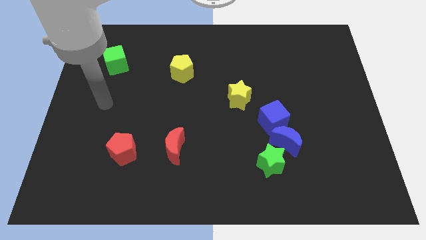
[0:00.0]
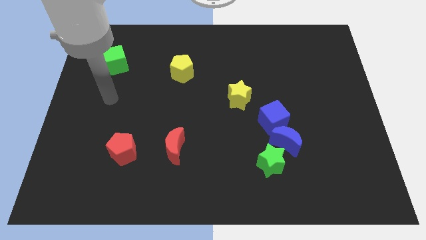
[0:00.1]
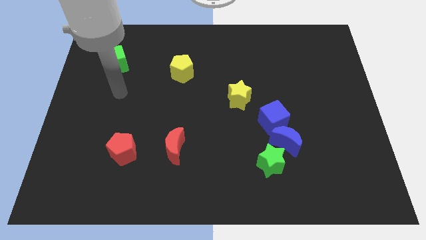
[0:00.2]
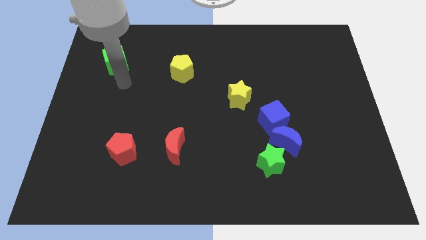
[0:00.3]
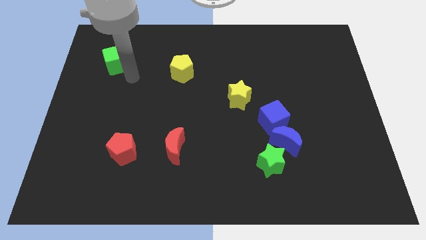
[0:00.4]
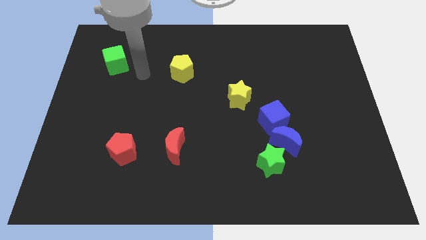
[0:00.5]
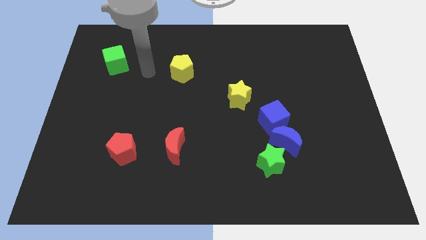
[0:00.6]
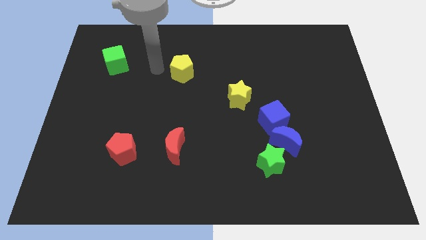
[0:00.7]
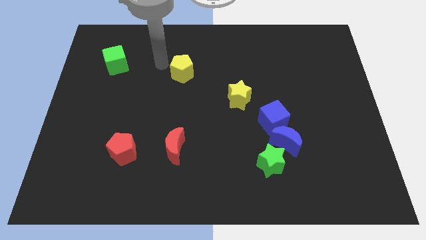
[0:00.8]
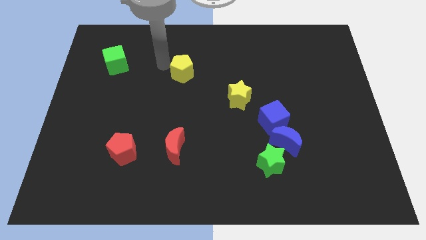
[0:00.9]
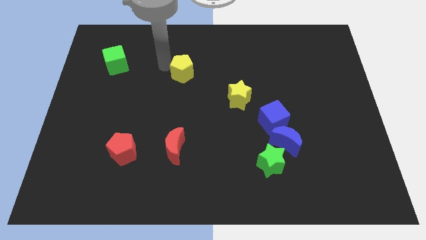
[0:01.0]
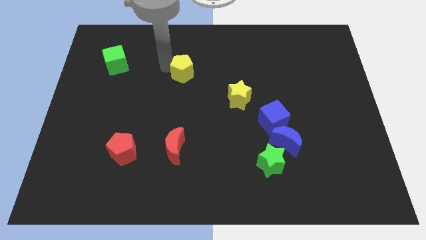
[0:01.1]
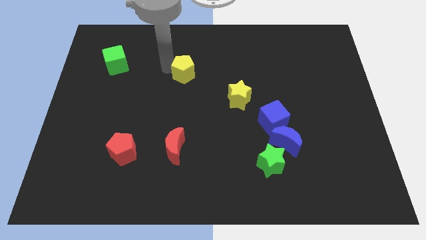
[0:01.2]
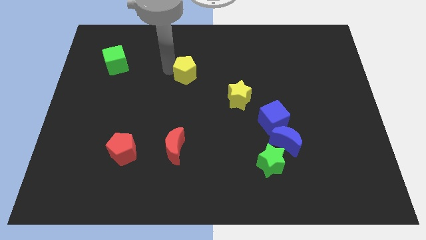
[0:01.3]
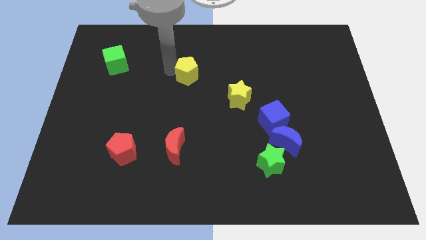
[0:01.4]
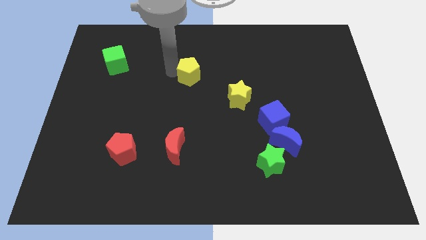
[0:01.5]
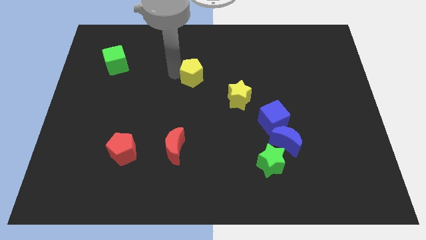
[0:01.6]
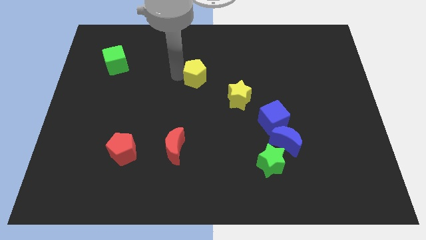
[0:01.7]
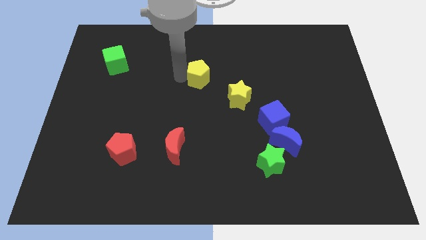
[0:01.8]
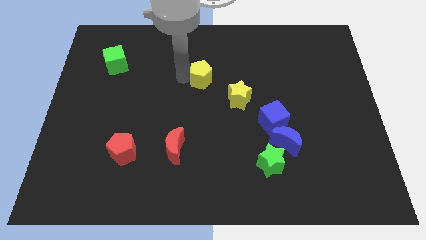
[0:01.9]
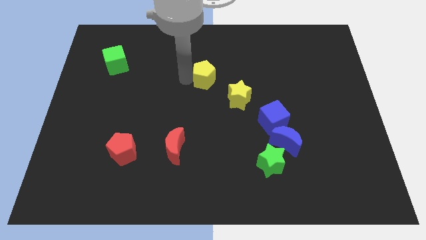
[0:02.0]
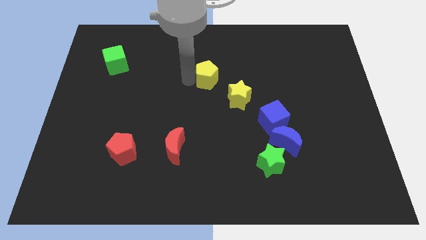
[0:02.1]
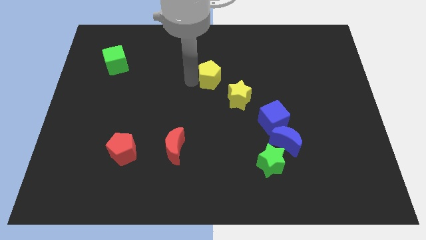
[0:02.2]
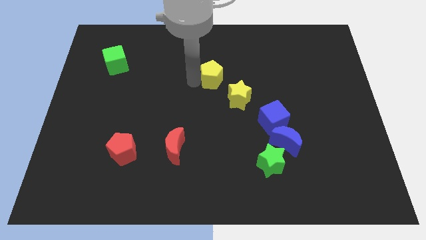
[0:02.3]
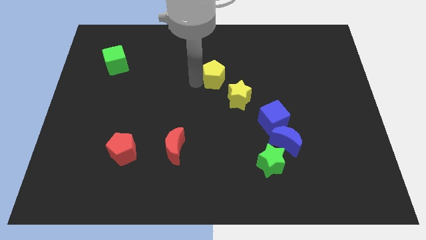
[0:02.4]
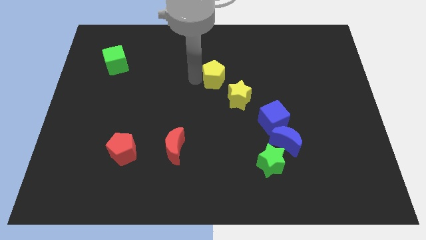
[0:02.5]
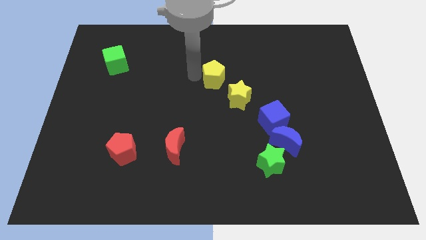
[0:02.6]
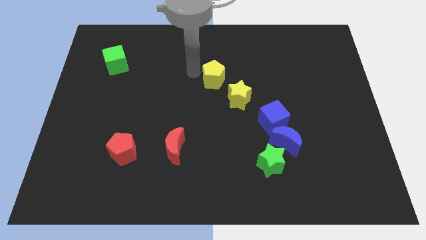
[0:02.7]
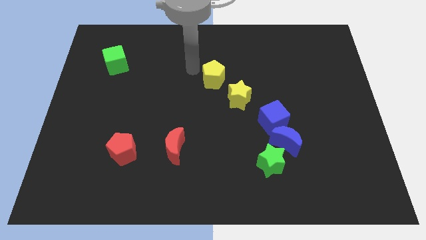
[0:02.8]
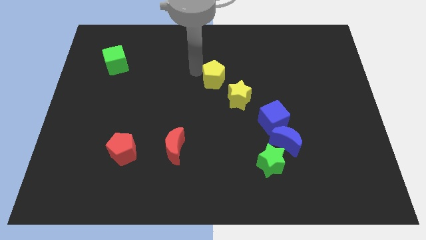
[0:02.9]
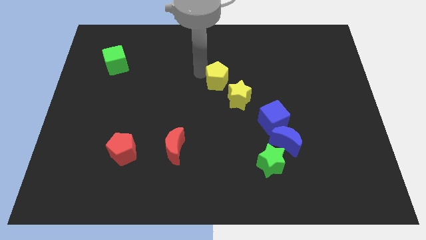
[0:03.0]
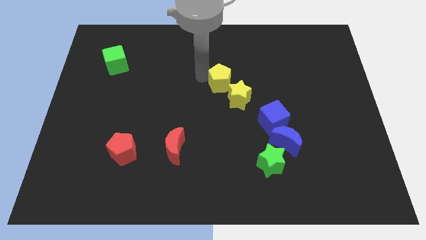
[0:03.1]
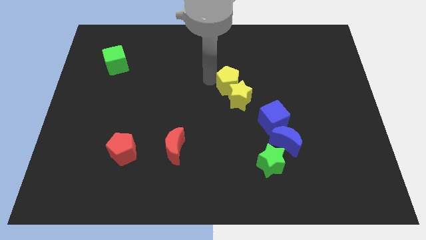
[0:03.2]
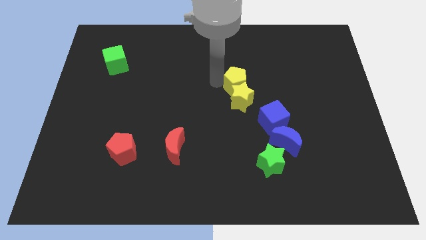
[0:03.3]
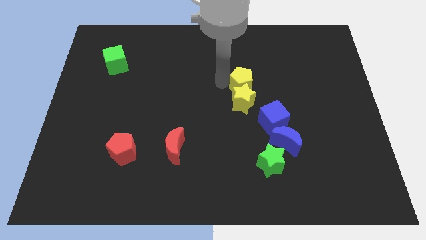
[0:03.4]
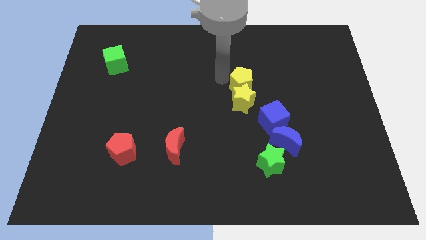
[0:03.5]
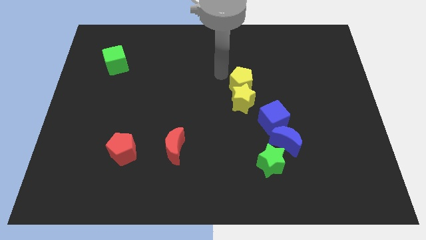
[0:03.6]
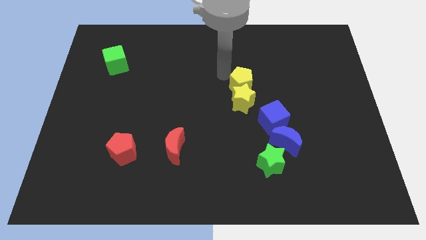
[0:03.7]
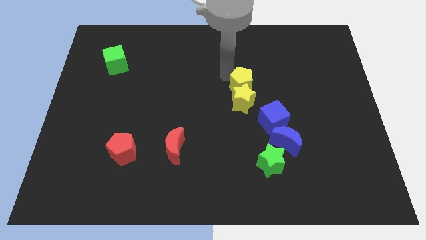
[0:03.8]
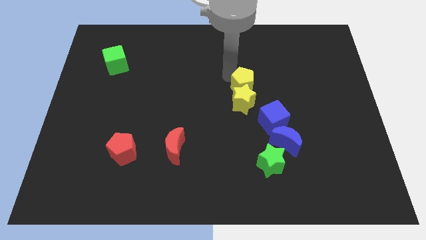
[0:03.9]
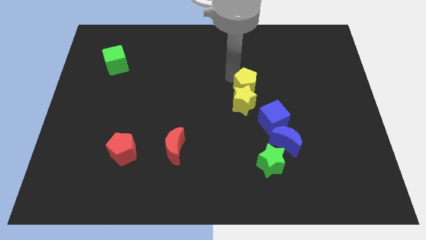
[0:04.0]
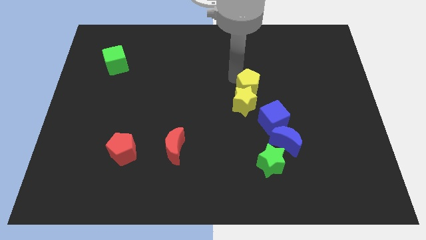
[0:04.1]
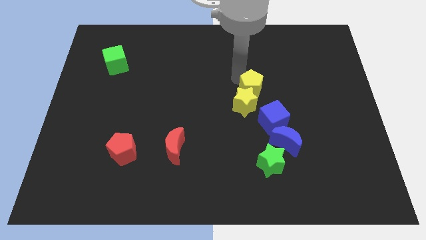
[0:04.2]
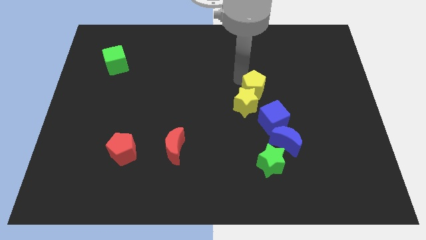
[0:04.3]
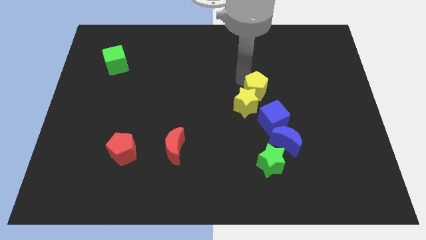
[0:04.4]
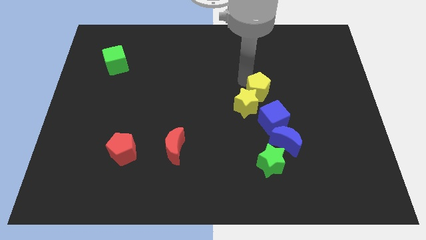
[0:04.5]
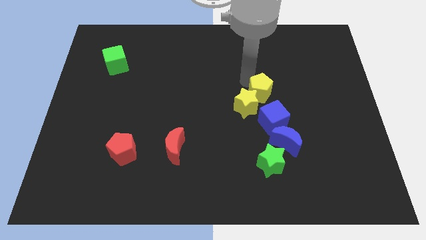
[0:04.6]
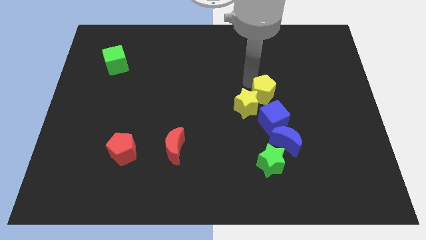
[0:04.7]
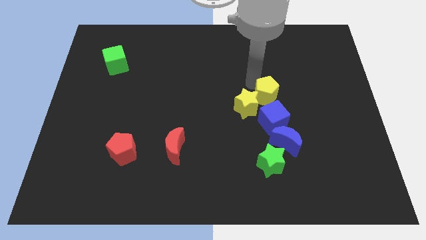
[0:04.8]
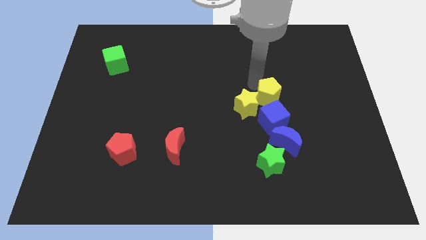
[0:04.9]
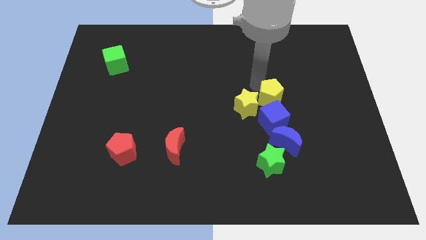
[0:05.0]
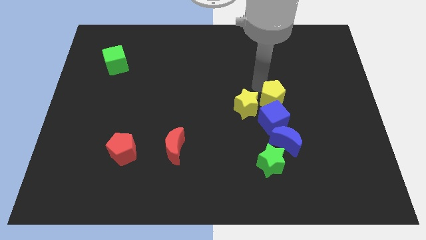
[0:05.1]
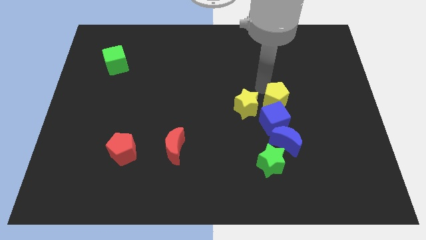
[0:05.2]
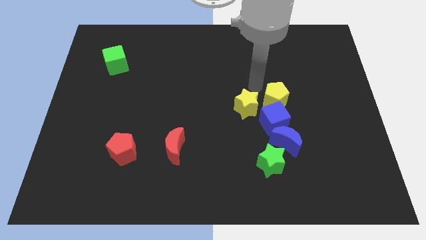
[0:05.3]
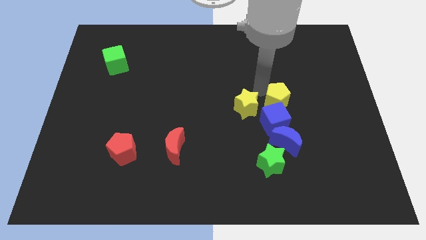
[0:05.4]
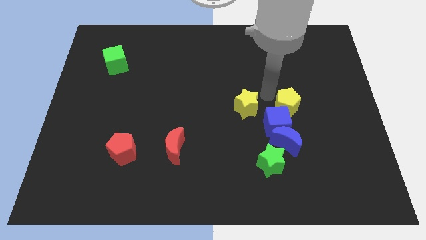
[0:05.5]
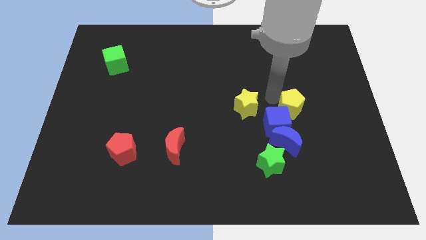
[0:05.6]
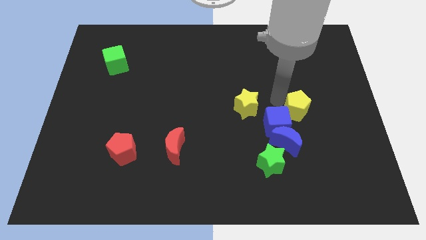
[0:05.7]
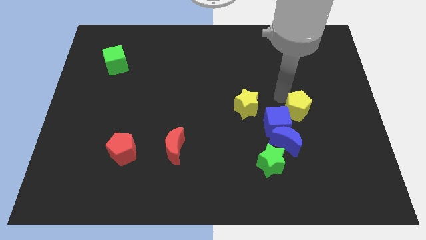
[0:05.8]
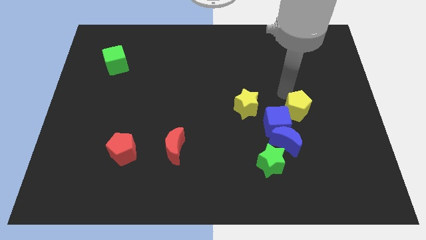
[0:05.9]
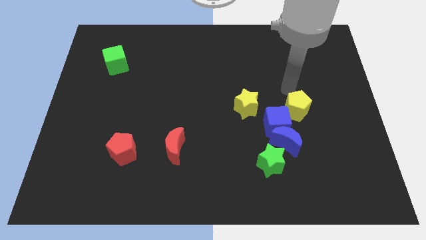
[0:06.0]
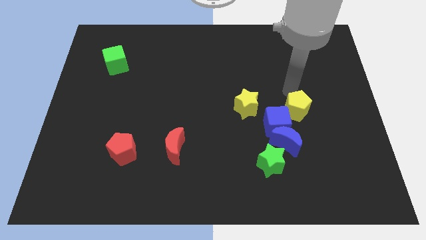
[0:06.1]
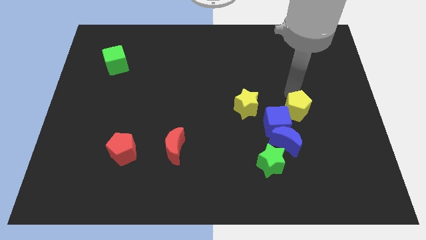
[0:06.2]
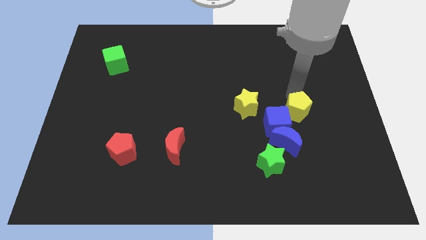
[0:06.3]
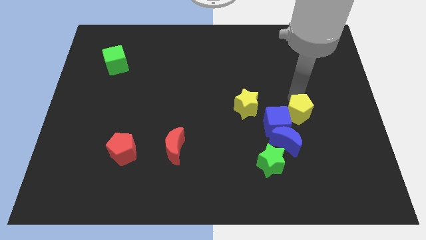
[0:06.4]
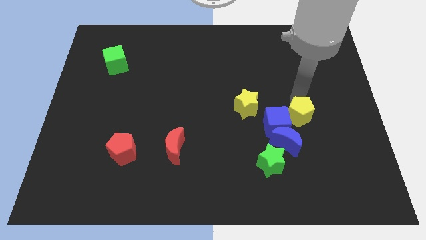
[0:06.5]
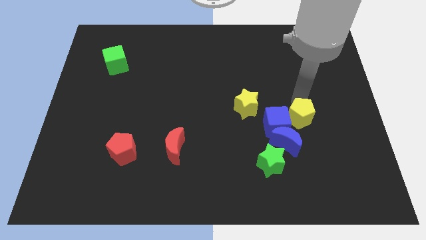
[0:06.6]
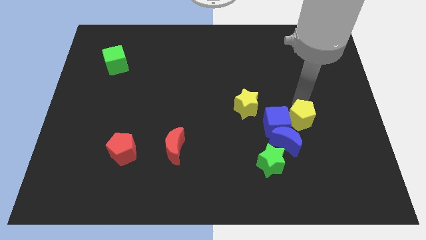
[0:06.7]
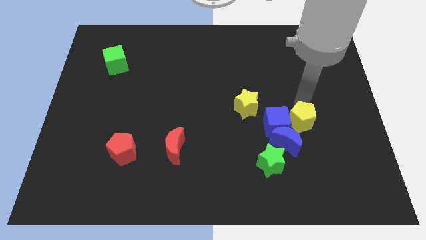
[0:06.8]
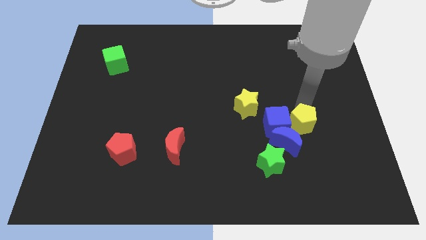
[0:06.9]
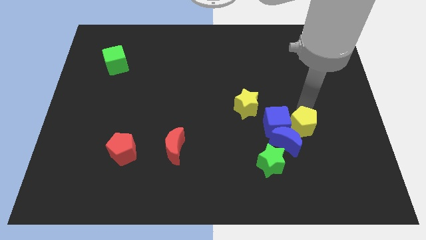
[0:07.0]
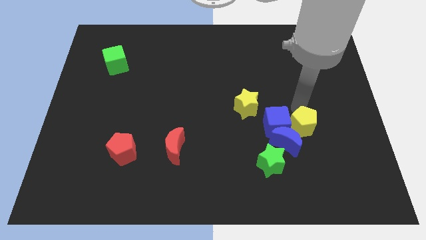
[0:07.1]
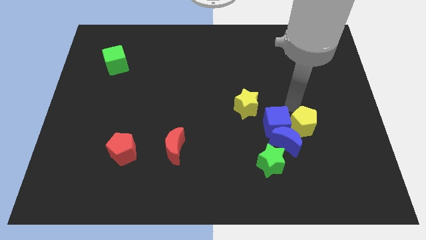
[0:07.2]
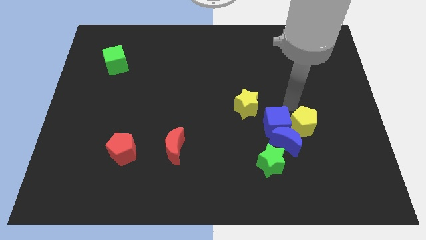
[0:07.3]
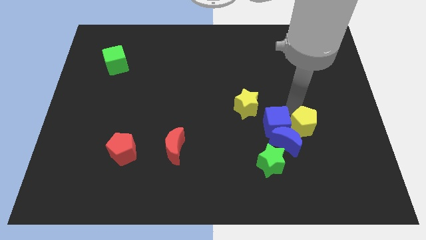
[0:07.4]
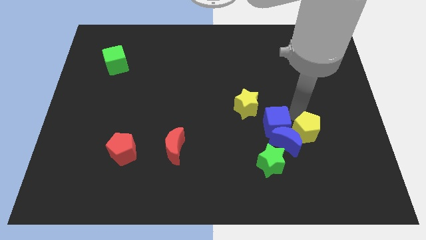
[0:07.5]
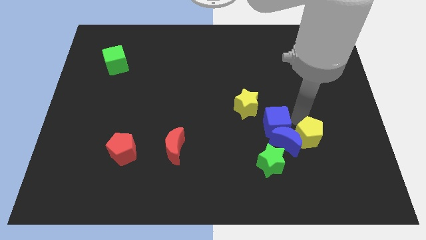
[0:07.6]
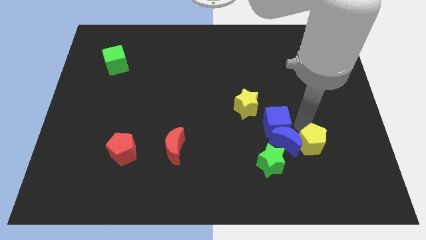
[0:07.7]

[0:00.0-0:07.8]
push the yellow pentagon right of the green star
